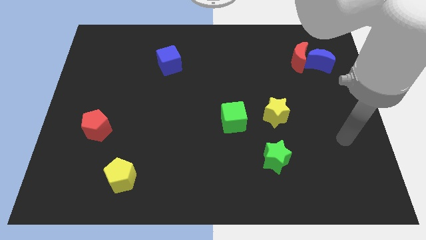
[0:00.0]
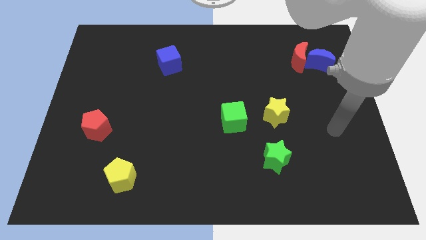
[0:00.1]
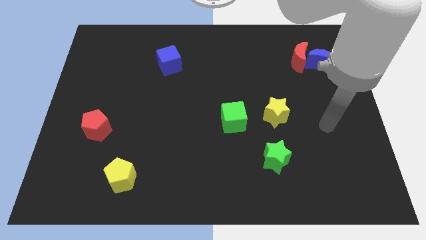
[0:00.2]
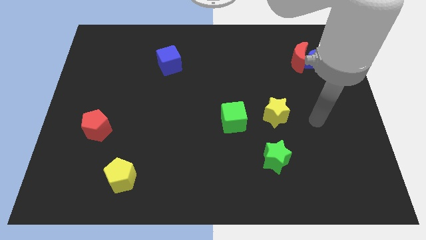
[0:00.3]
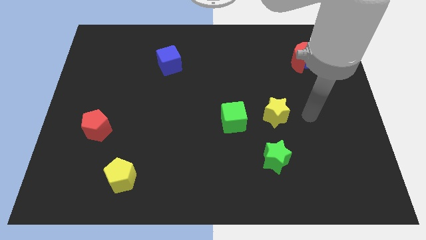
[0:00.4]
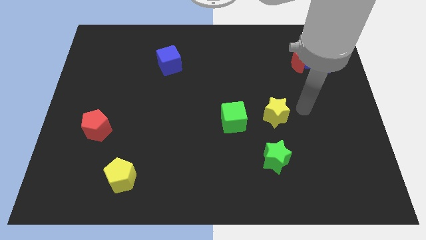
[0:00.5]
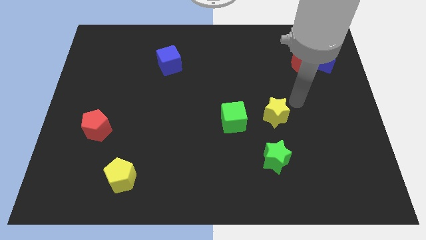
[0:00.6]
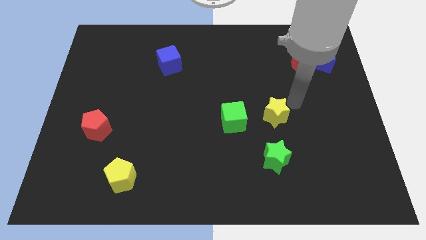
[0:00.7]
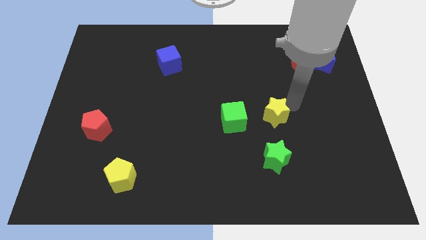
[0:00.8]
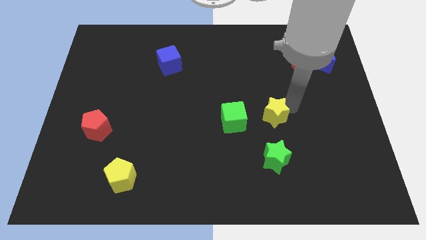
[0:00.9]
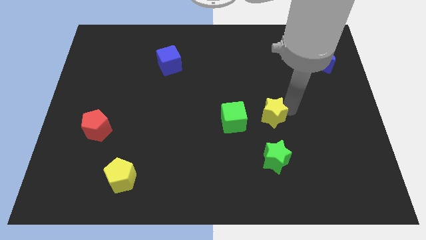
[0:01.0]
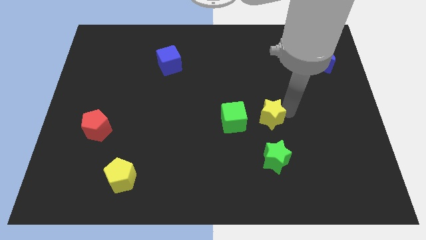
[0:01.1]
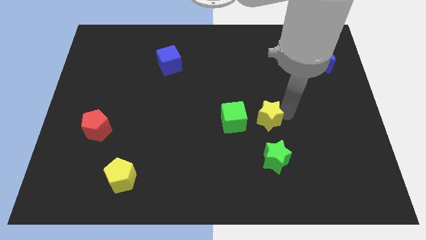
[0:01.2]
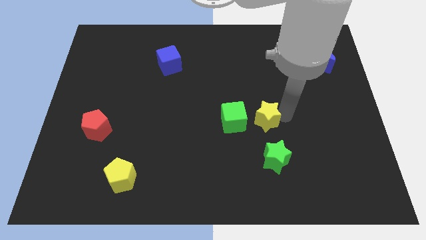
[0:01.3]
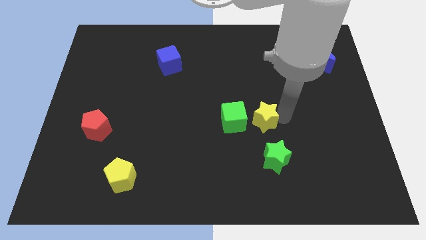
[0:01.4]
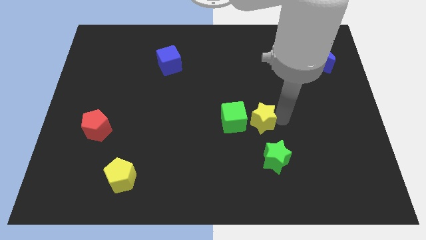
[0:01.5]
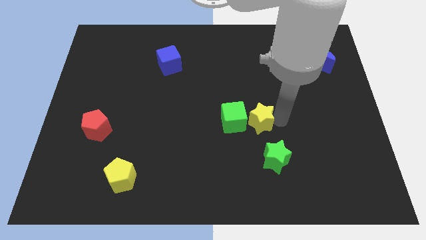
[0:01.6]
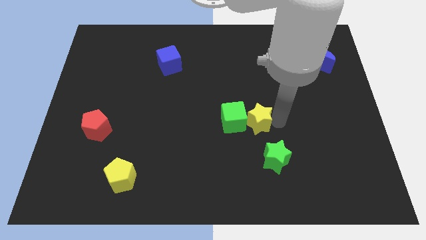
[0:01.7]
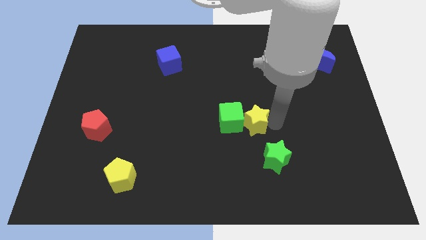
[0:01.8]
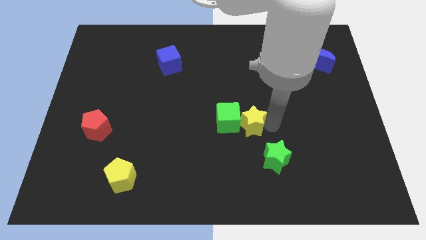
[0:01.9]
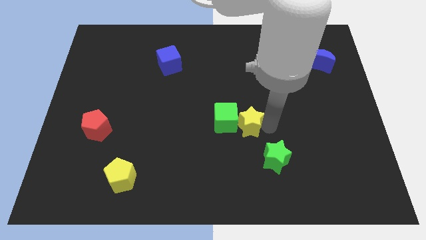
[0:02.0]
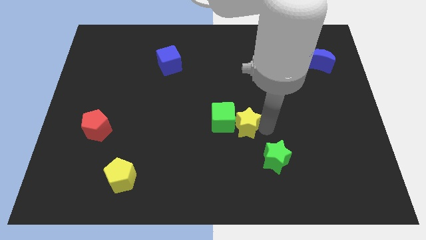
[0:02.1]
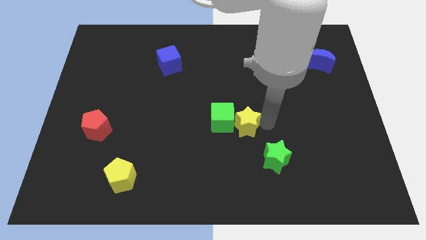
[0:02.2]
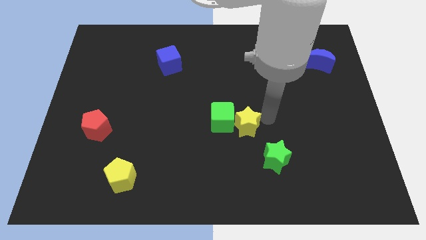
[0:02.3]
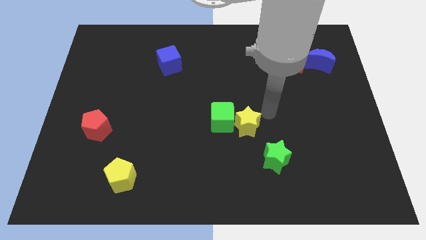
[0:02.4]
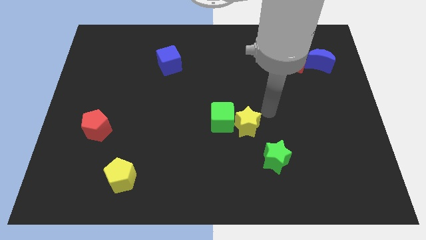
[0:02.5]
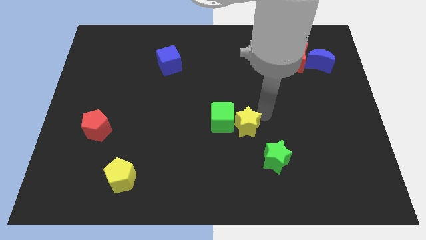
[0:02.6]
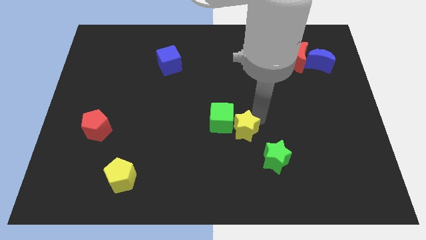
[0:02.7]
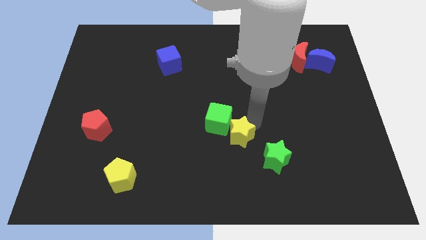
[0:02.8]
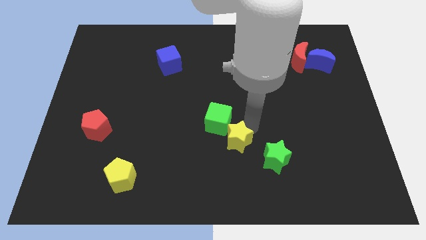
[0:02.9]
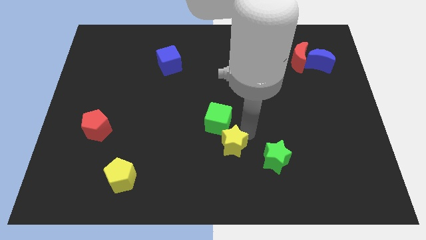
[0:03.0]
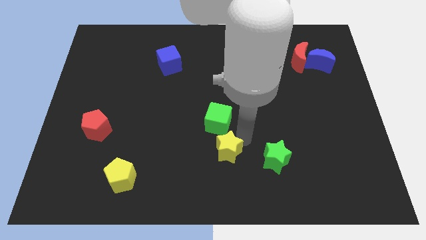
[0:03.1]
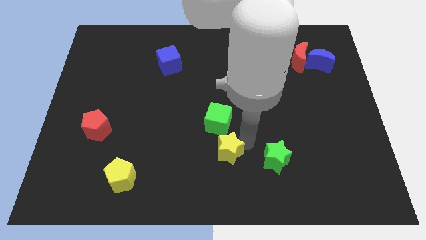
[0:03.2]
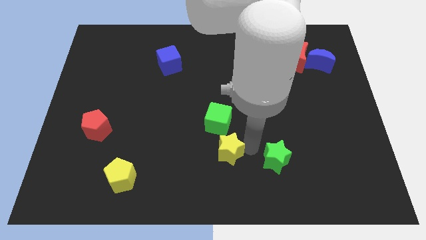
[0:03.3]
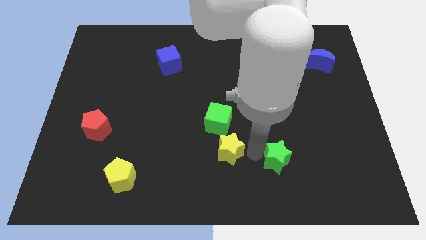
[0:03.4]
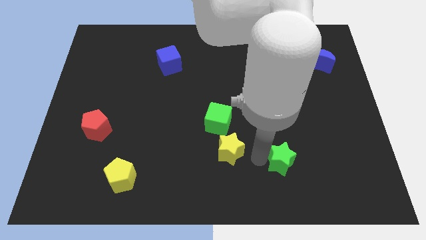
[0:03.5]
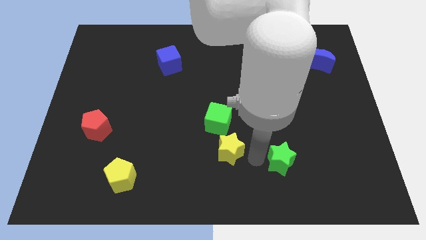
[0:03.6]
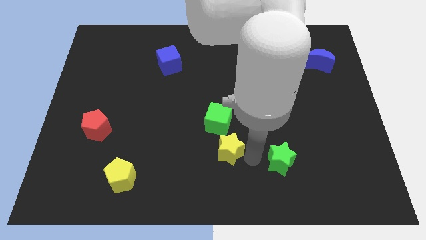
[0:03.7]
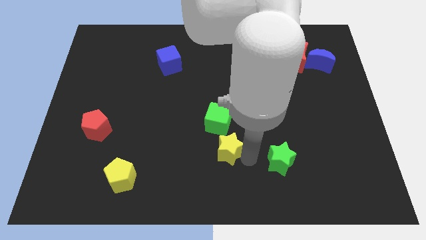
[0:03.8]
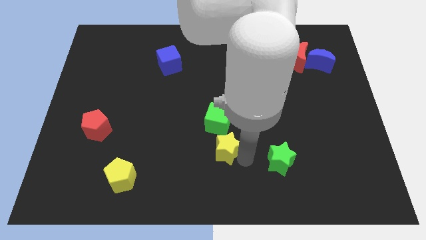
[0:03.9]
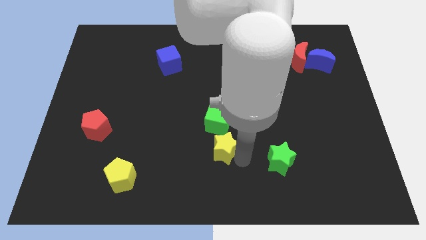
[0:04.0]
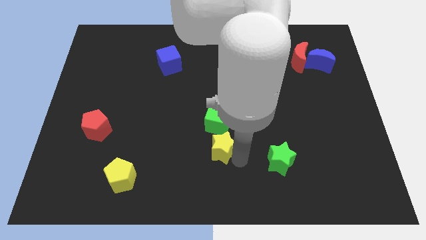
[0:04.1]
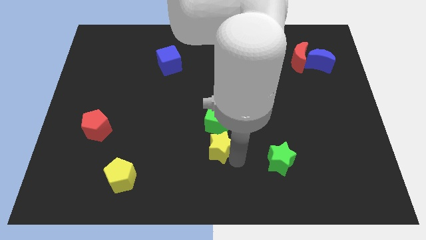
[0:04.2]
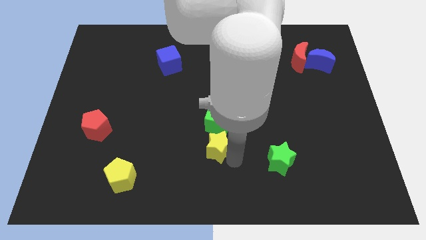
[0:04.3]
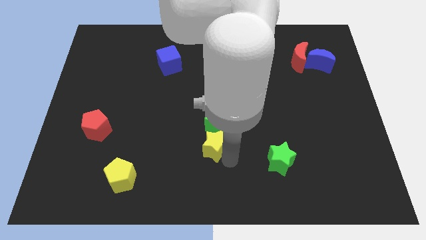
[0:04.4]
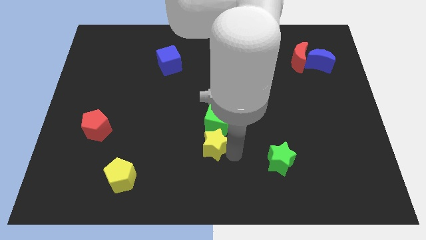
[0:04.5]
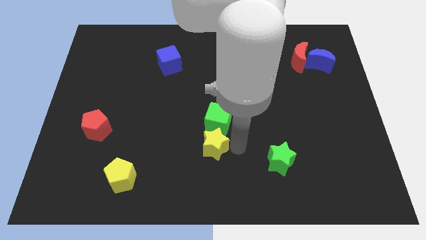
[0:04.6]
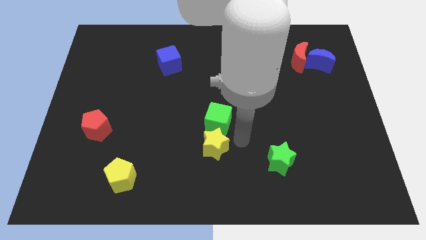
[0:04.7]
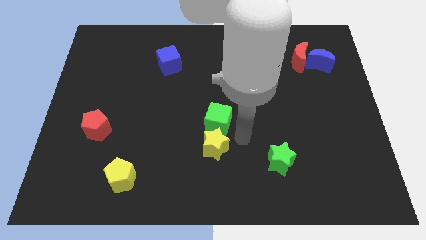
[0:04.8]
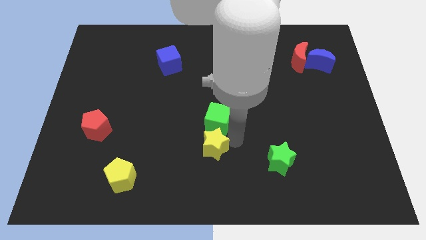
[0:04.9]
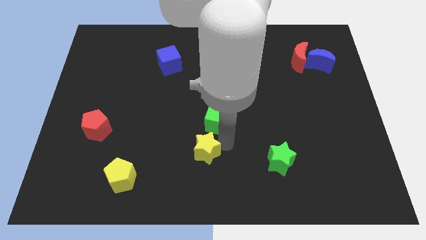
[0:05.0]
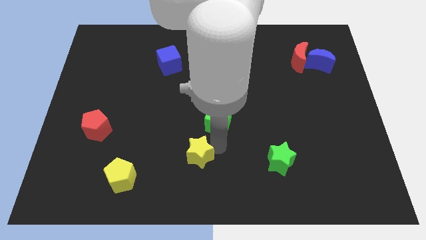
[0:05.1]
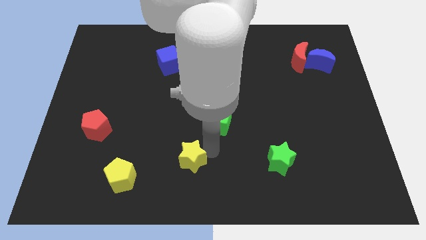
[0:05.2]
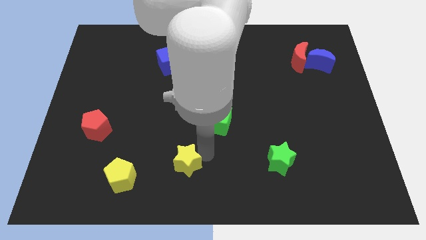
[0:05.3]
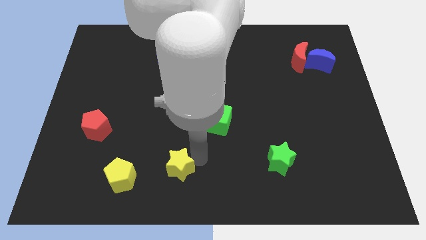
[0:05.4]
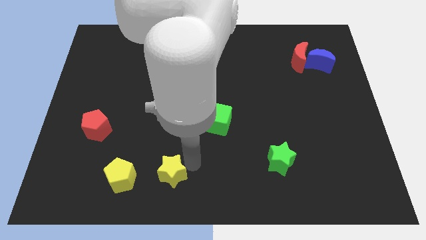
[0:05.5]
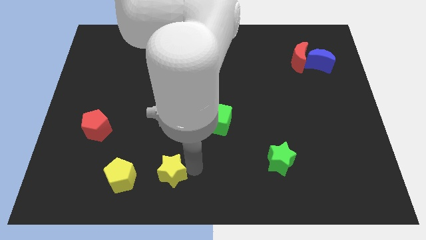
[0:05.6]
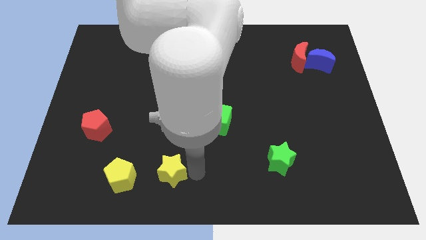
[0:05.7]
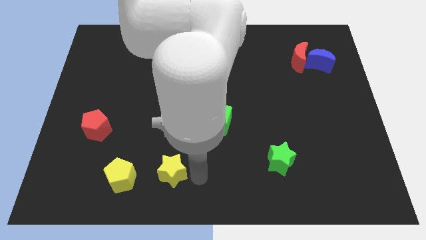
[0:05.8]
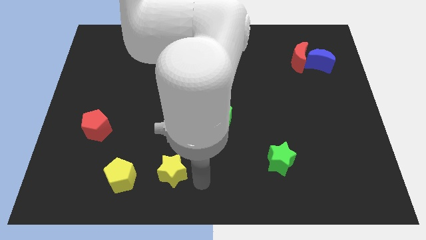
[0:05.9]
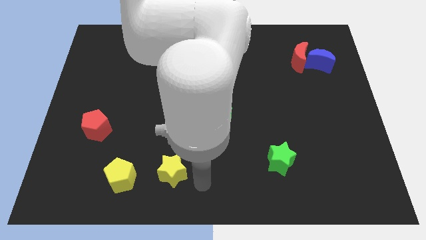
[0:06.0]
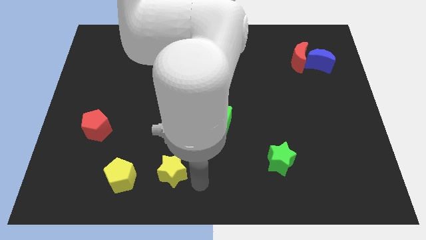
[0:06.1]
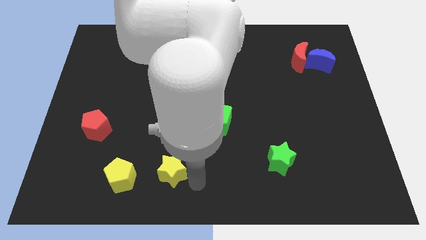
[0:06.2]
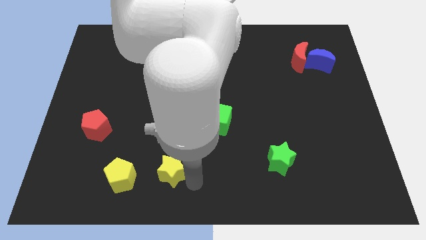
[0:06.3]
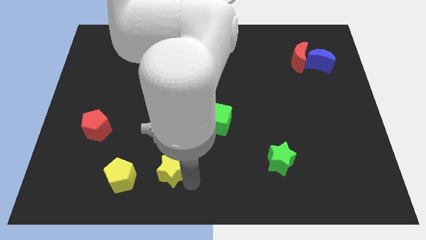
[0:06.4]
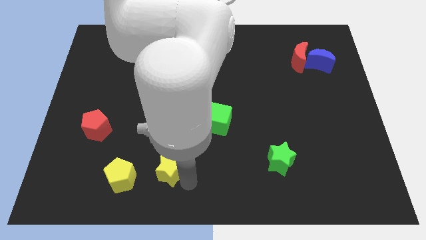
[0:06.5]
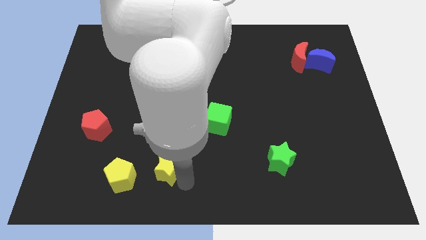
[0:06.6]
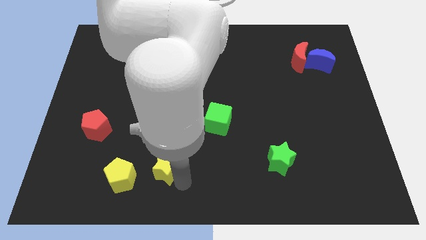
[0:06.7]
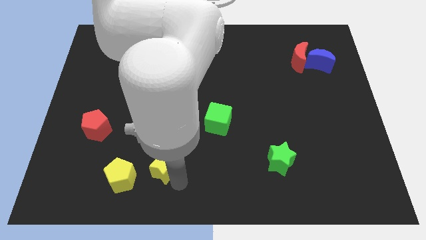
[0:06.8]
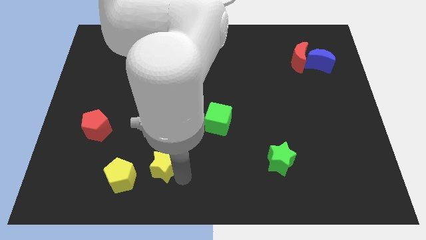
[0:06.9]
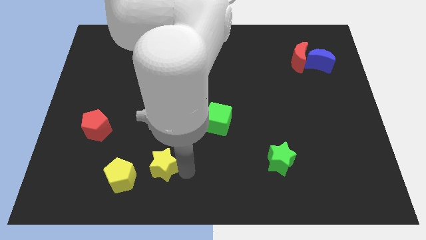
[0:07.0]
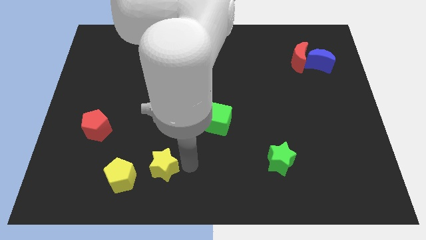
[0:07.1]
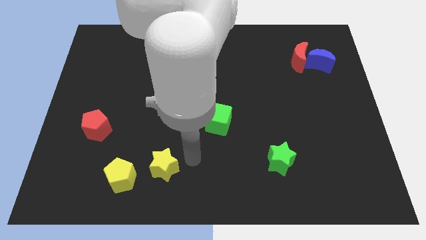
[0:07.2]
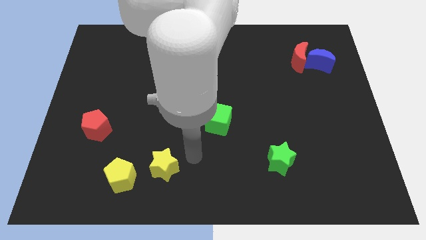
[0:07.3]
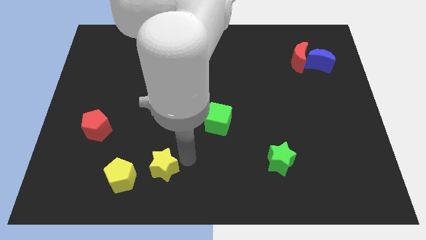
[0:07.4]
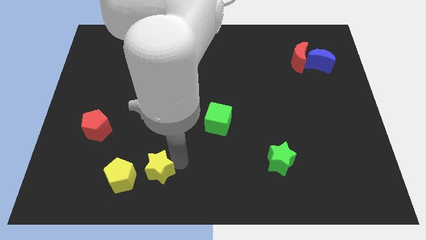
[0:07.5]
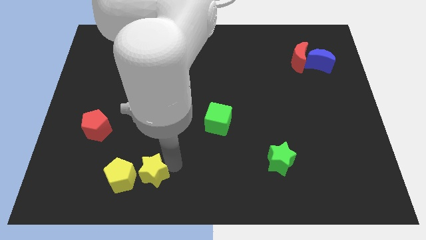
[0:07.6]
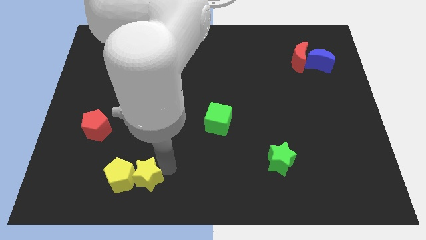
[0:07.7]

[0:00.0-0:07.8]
move the yellow star to the yellow pentagon
